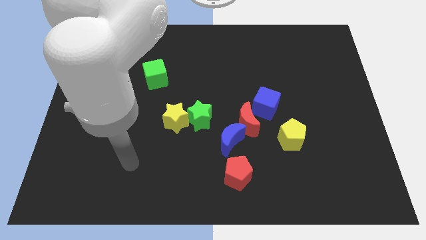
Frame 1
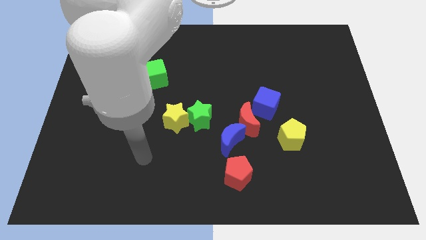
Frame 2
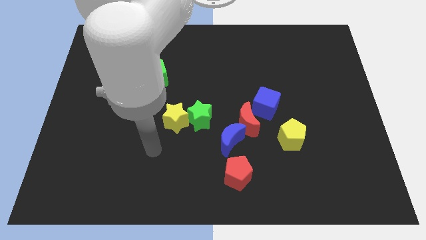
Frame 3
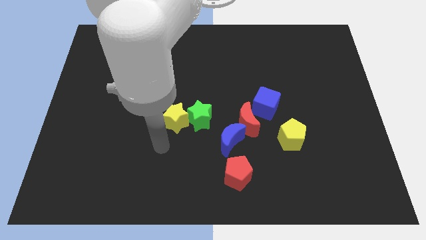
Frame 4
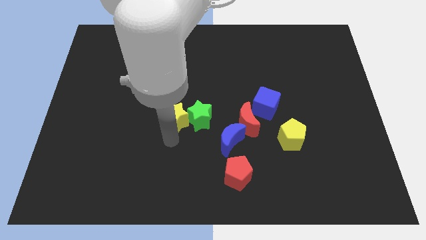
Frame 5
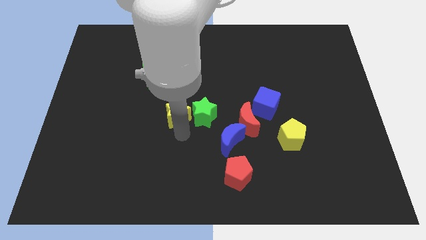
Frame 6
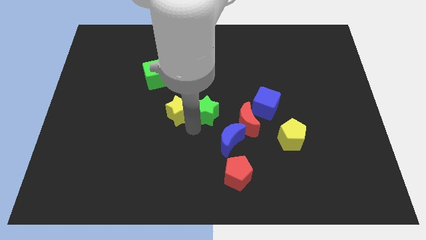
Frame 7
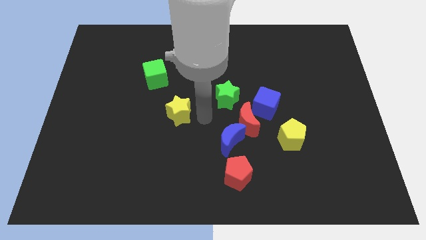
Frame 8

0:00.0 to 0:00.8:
move the yellow star away from the green star

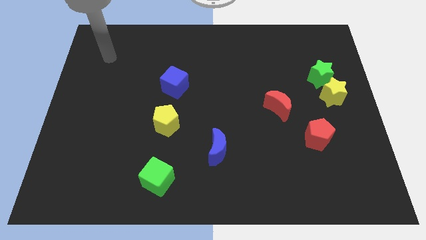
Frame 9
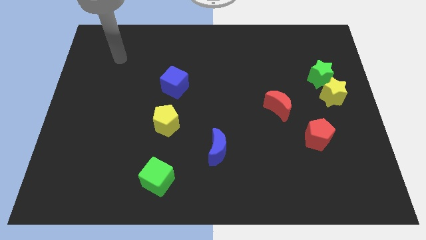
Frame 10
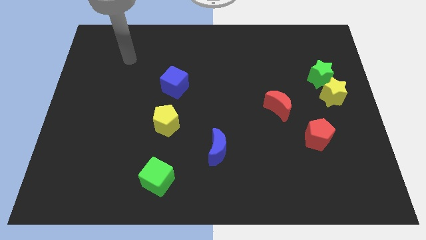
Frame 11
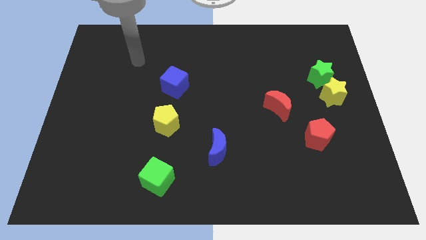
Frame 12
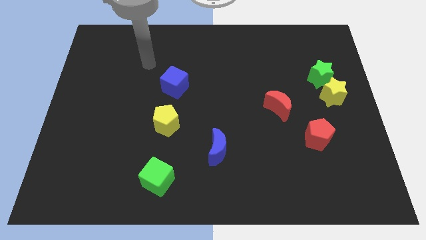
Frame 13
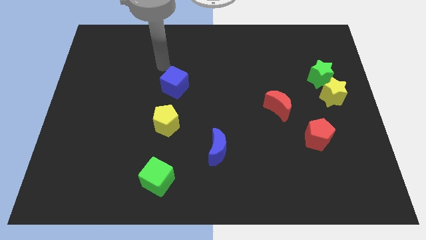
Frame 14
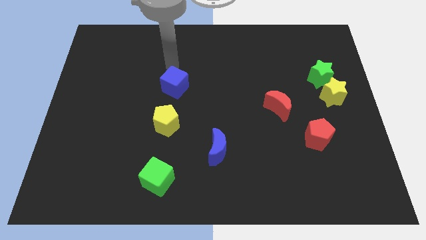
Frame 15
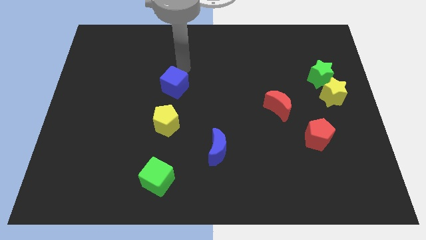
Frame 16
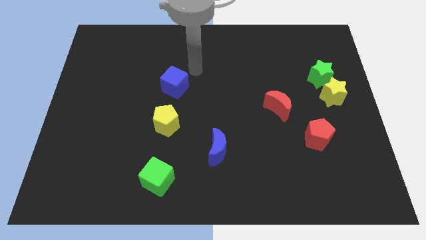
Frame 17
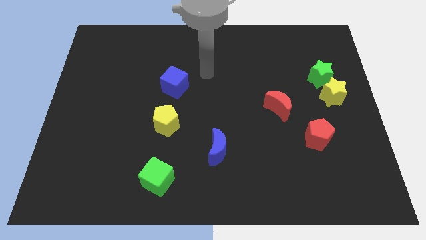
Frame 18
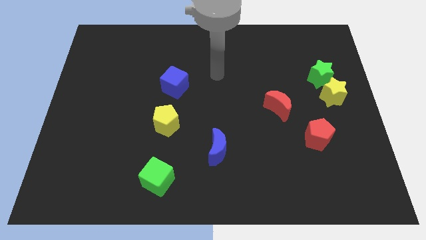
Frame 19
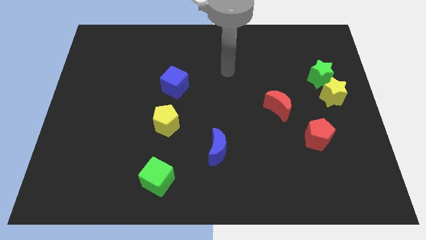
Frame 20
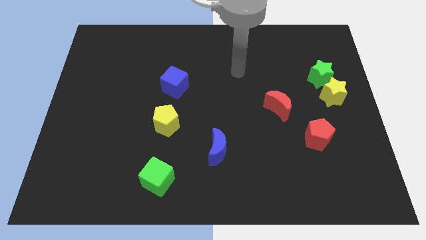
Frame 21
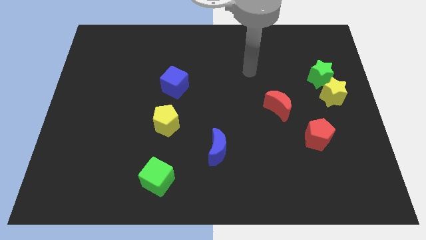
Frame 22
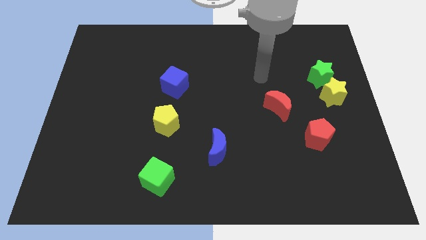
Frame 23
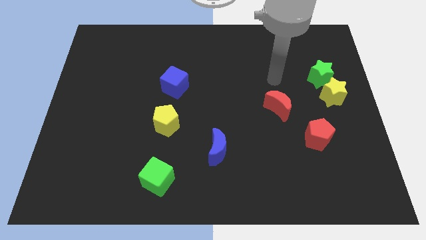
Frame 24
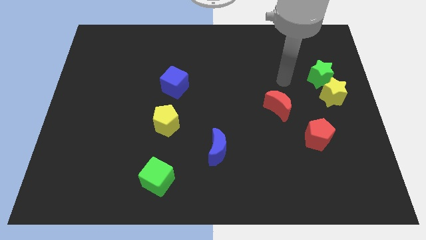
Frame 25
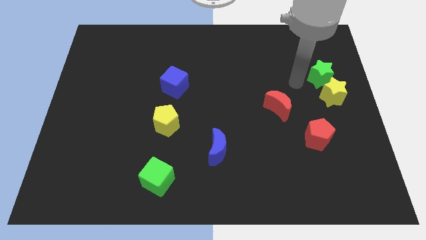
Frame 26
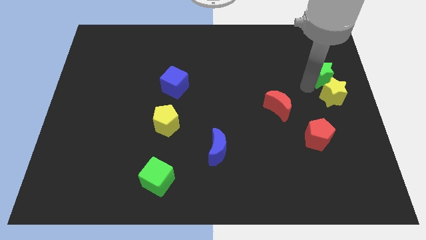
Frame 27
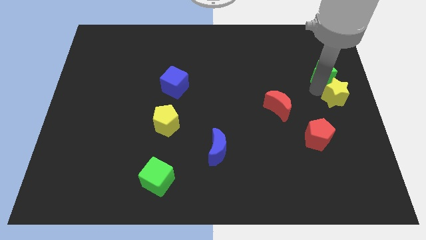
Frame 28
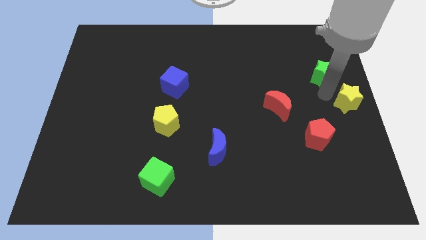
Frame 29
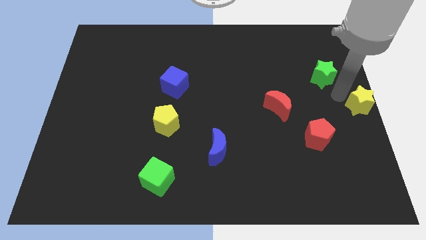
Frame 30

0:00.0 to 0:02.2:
separate the green star from the yellow star

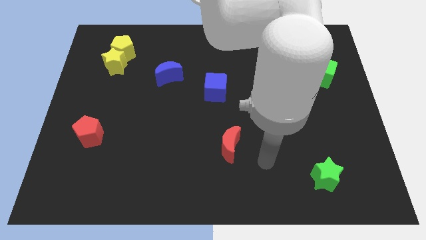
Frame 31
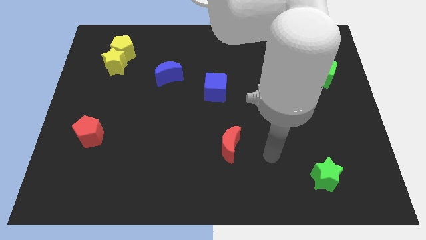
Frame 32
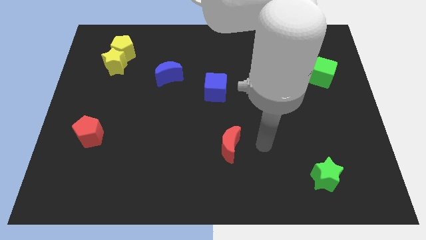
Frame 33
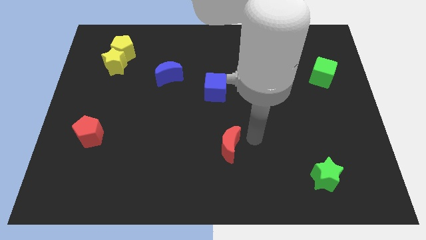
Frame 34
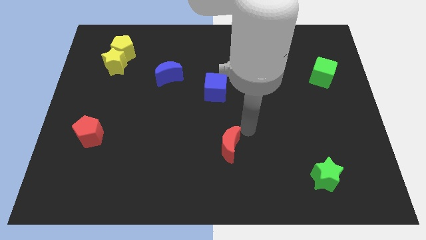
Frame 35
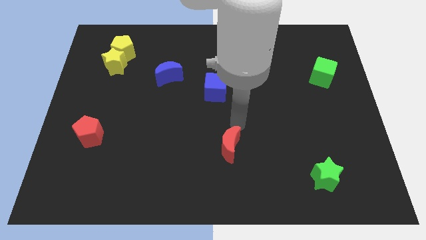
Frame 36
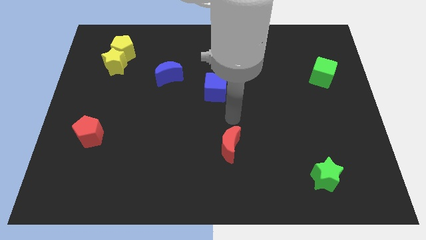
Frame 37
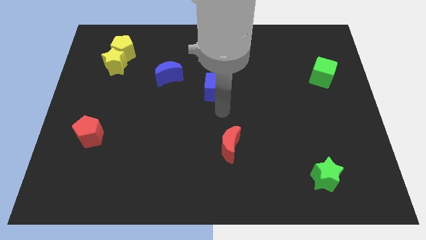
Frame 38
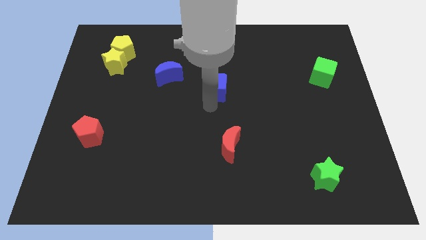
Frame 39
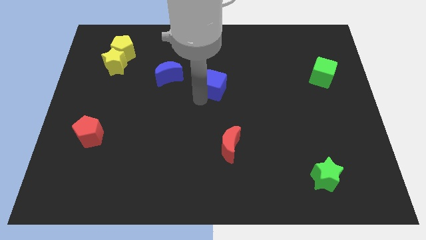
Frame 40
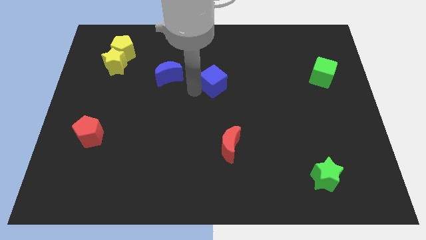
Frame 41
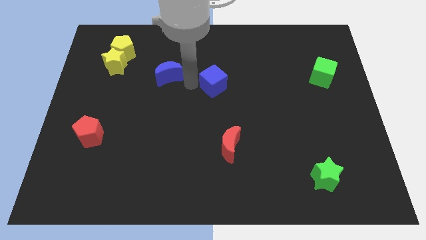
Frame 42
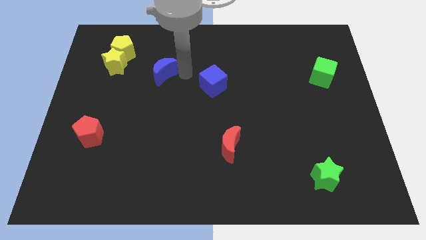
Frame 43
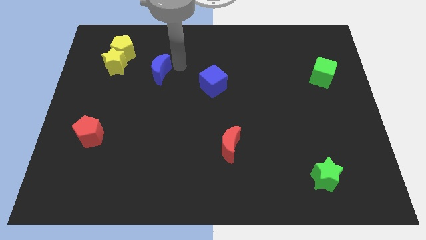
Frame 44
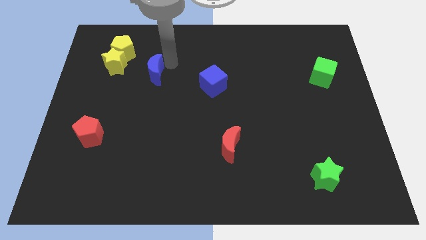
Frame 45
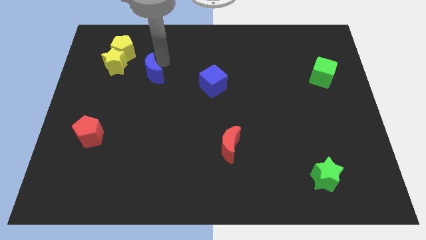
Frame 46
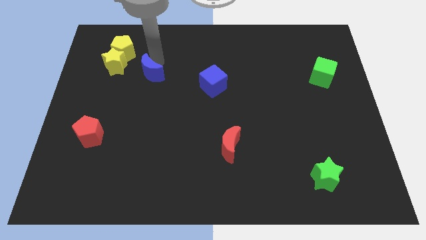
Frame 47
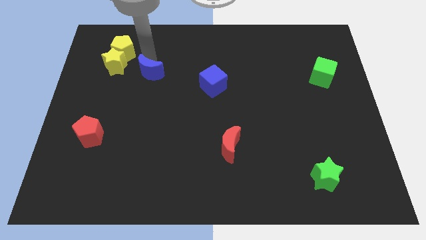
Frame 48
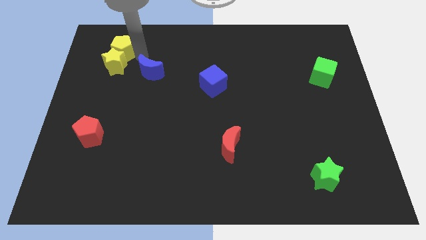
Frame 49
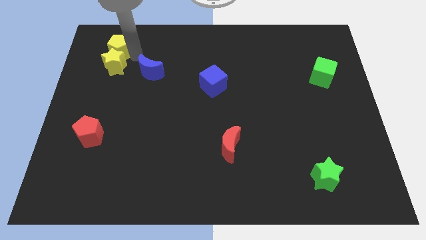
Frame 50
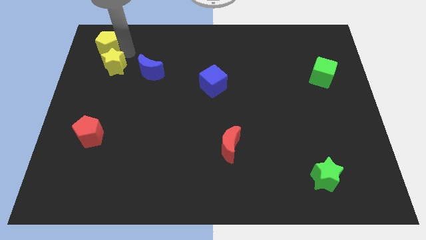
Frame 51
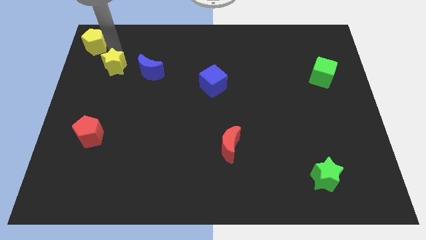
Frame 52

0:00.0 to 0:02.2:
pull the yellow star apart from the yellow pentagon

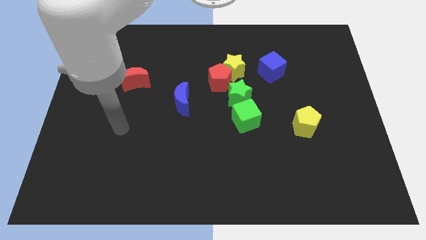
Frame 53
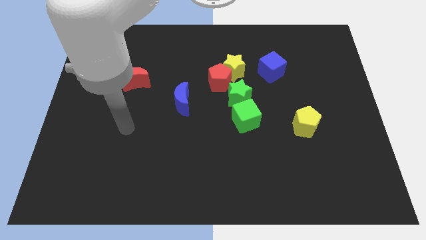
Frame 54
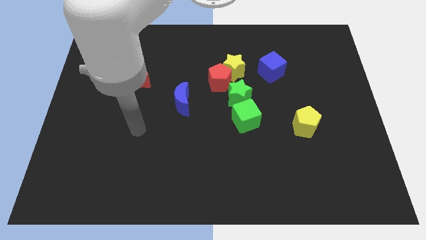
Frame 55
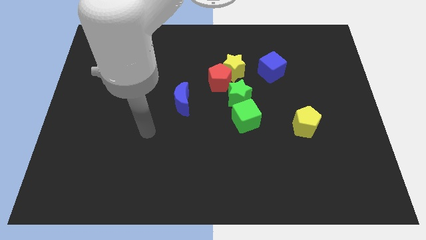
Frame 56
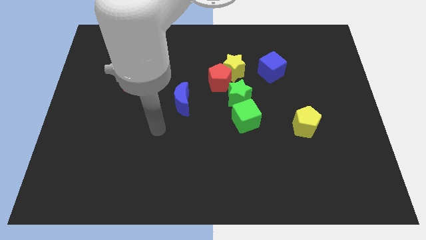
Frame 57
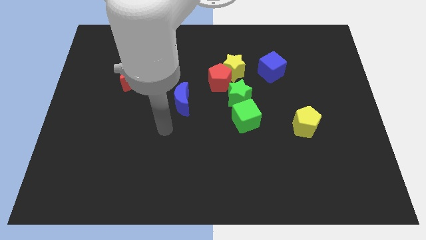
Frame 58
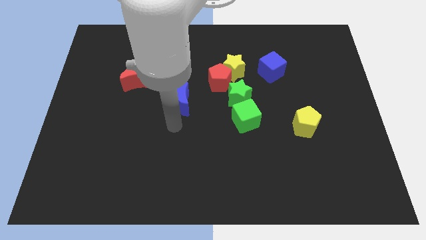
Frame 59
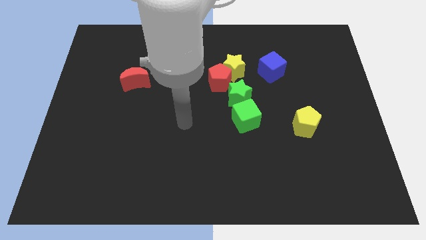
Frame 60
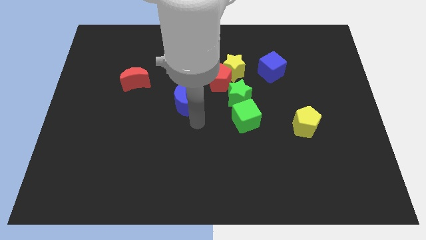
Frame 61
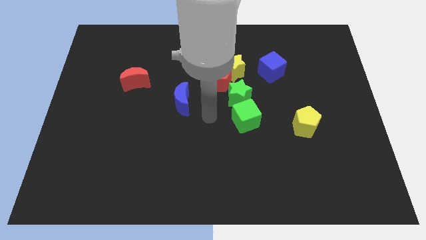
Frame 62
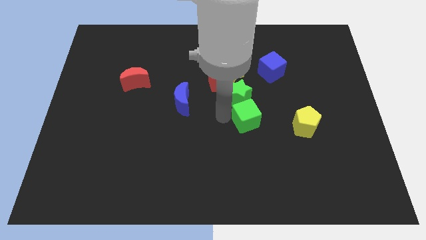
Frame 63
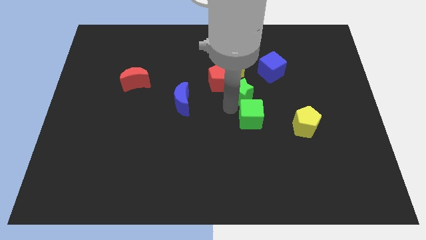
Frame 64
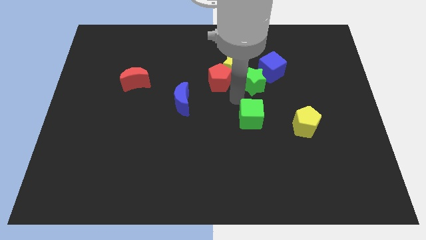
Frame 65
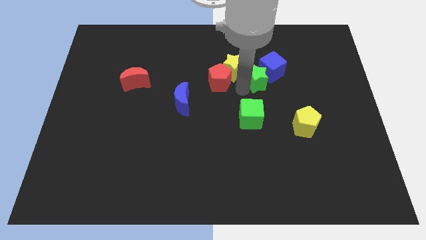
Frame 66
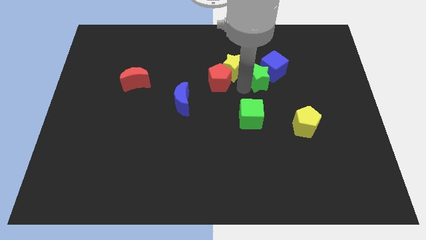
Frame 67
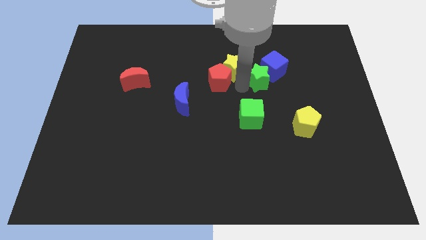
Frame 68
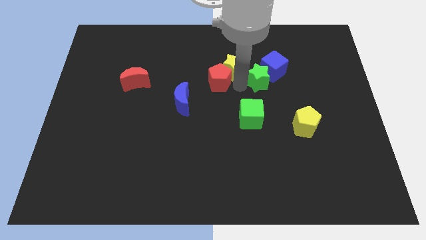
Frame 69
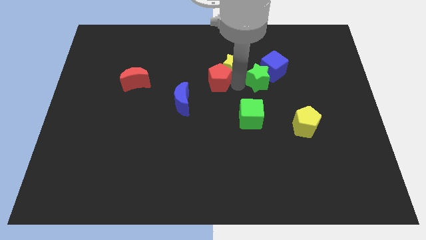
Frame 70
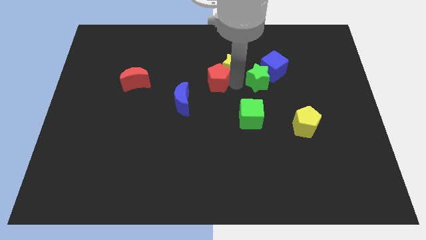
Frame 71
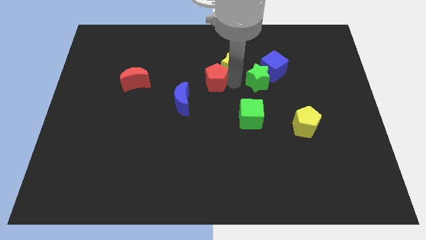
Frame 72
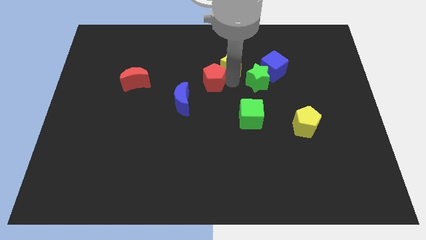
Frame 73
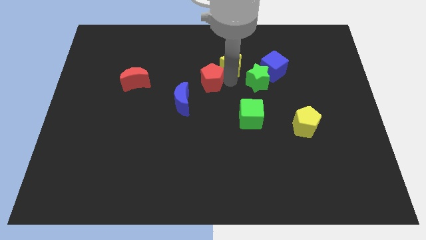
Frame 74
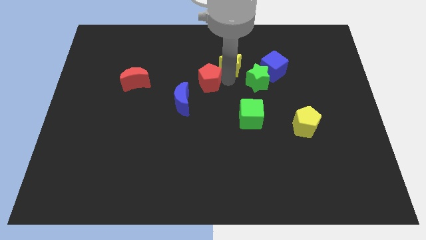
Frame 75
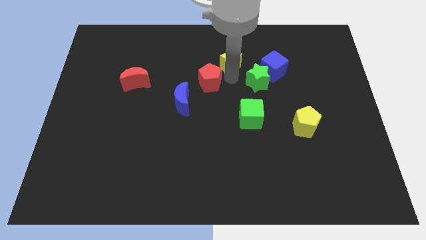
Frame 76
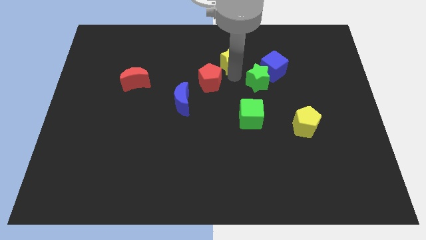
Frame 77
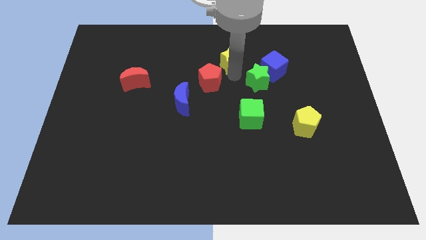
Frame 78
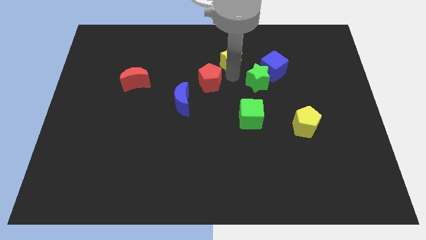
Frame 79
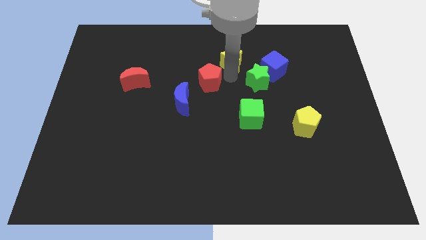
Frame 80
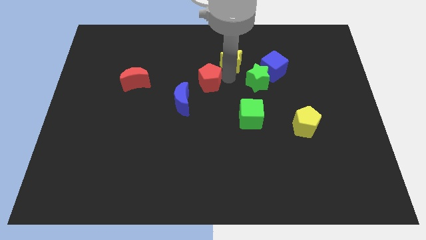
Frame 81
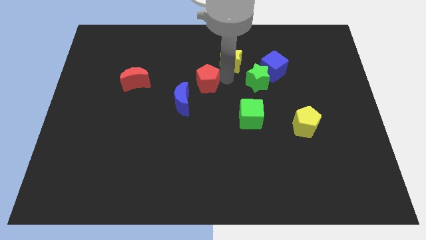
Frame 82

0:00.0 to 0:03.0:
pull the red pentagon apart from the yellow star and green star

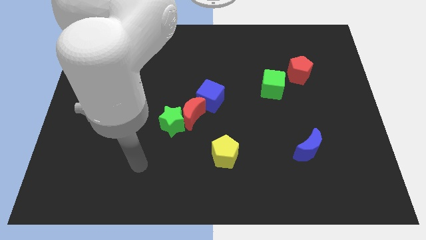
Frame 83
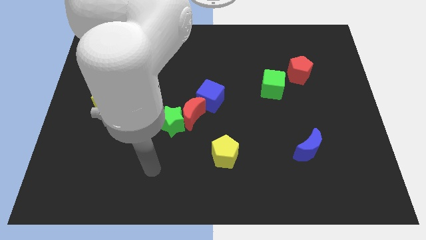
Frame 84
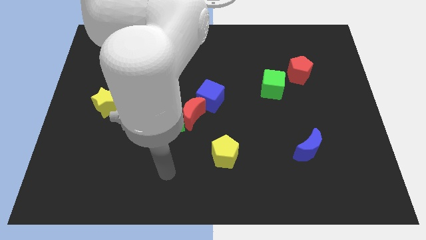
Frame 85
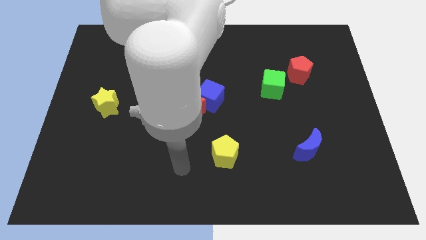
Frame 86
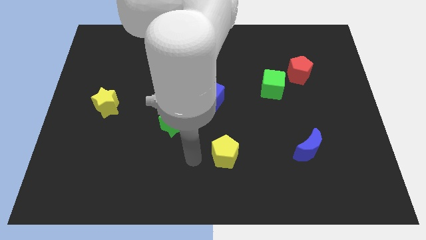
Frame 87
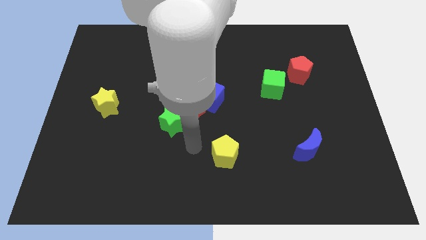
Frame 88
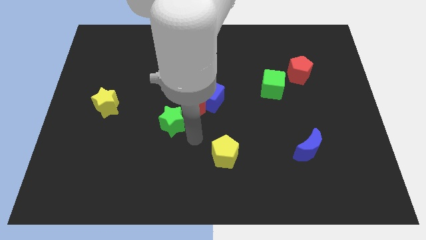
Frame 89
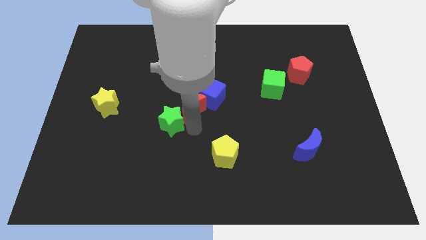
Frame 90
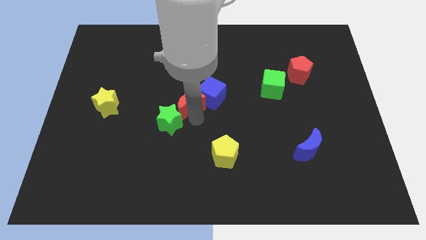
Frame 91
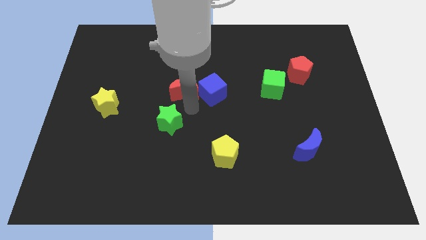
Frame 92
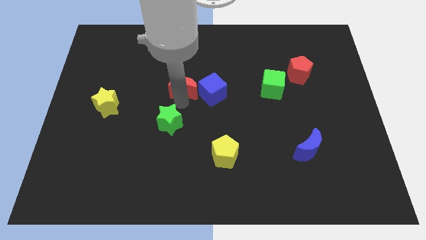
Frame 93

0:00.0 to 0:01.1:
pull the green star apart from the red moon
